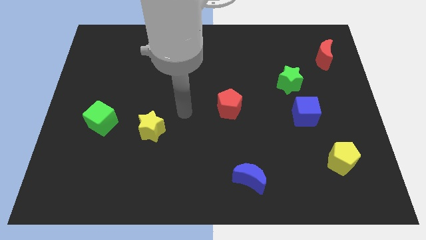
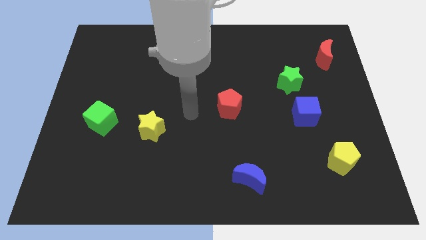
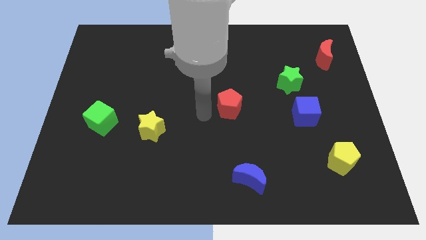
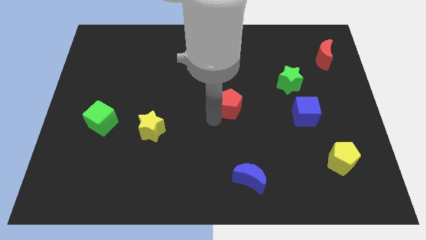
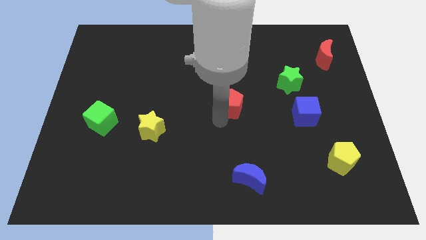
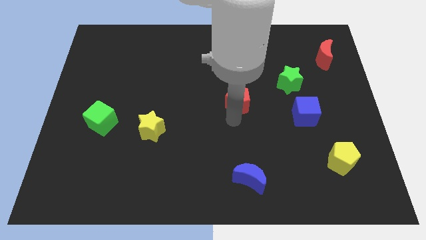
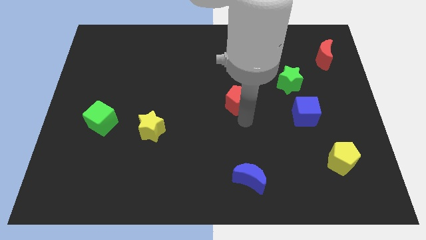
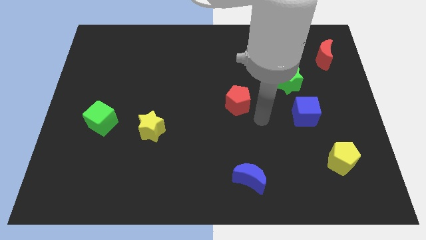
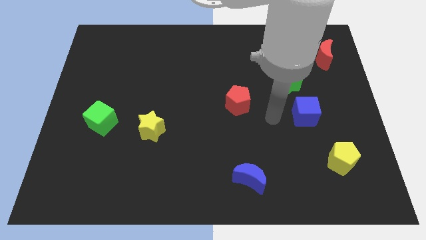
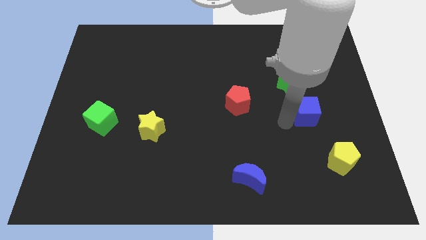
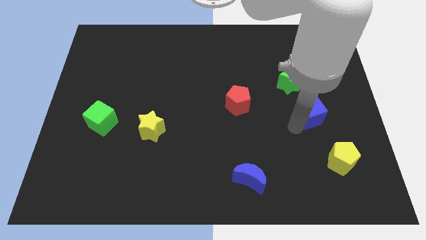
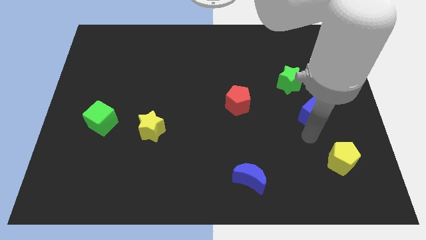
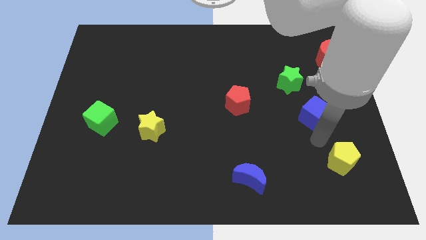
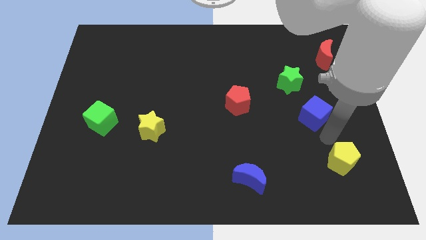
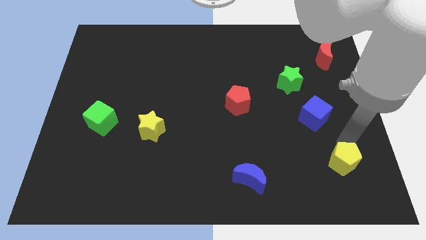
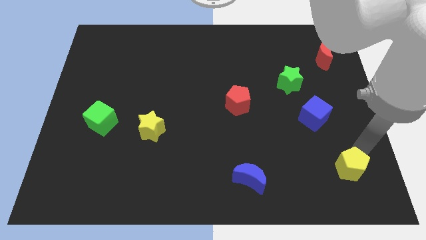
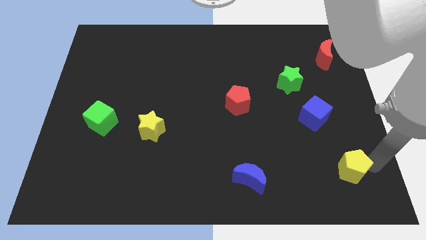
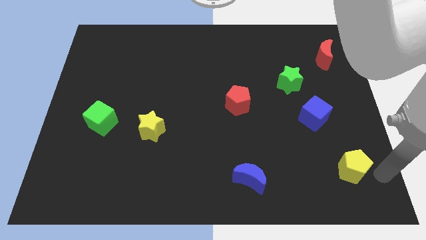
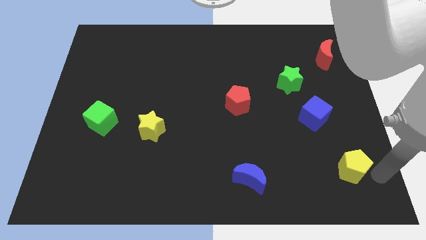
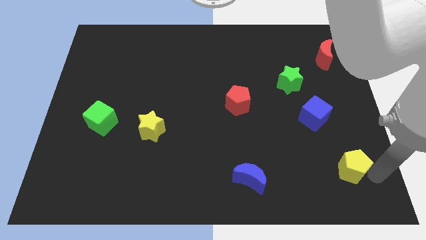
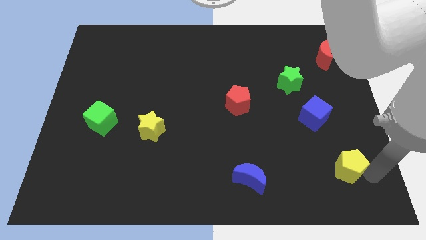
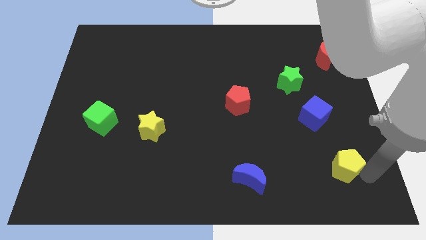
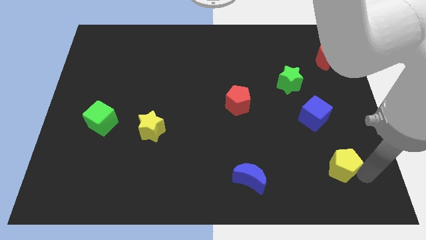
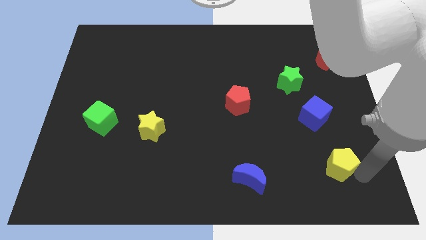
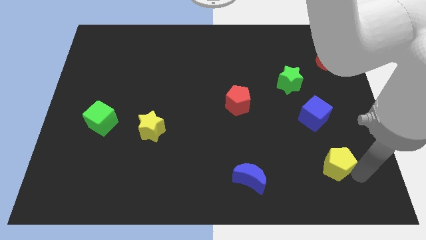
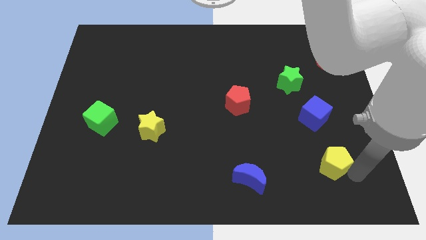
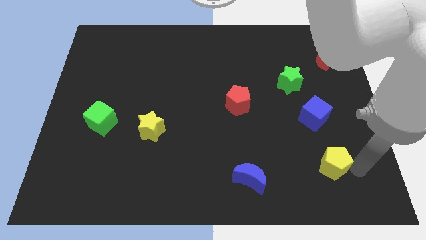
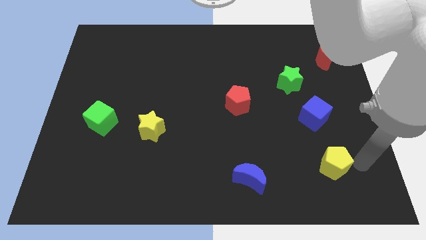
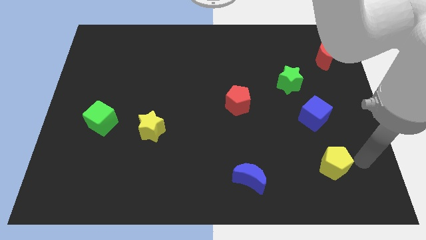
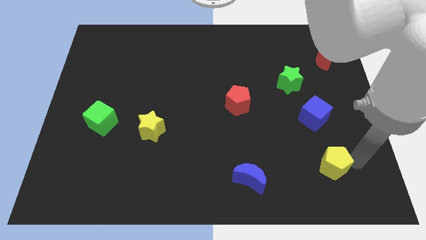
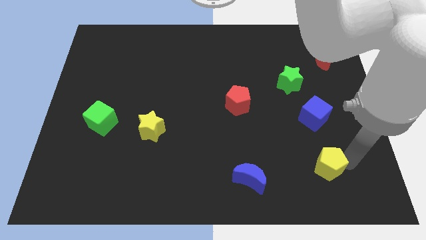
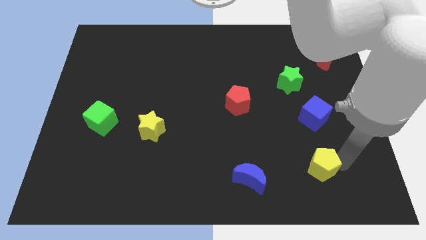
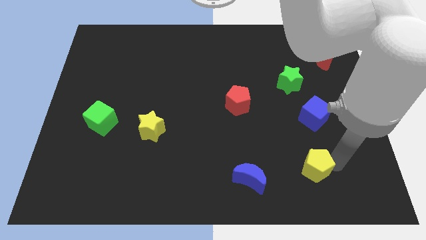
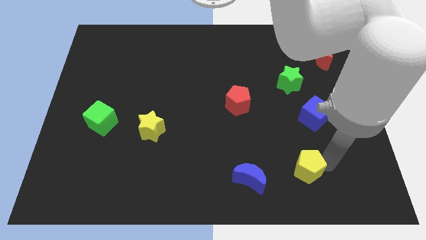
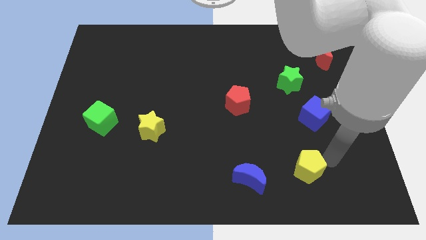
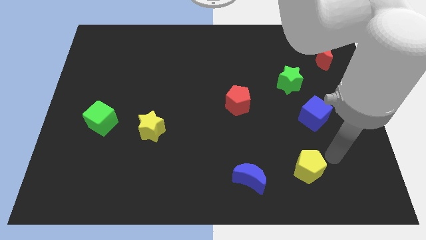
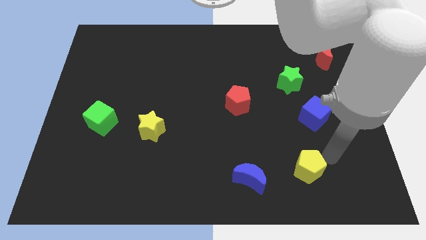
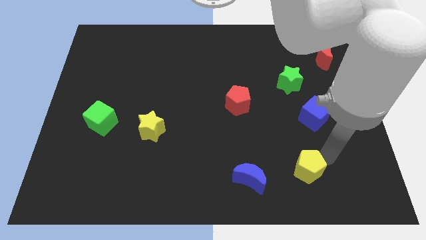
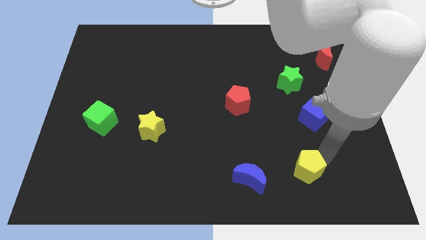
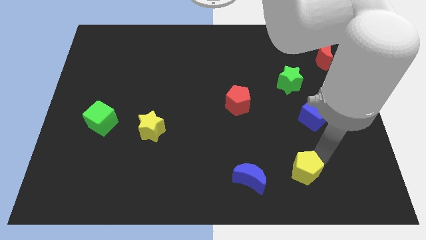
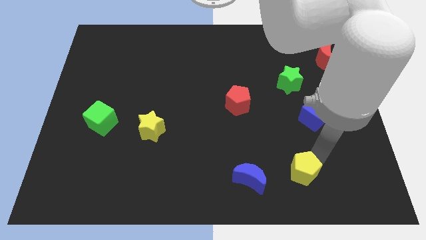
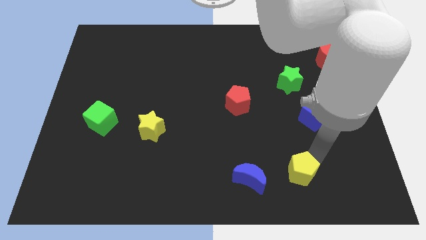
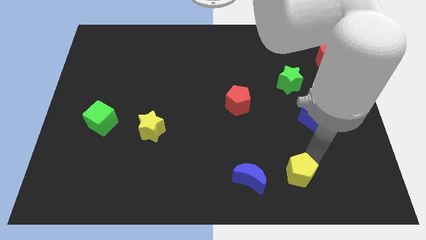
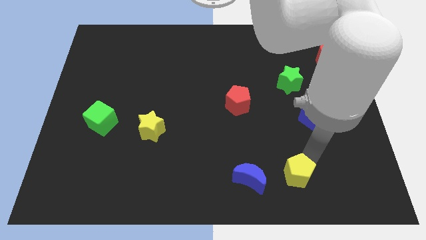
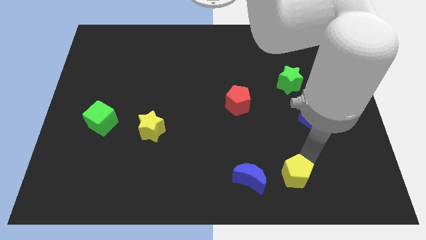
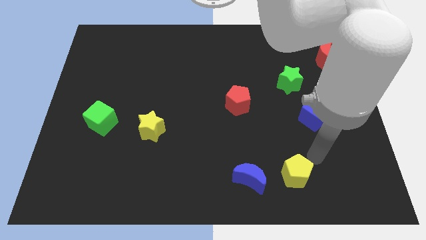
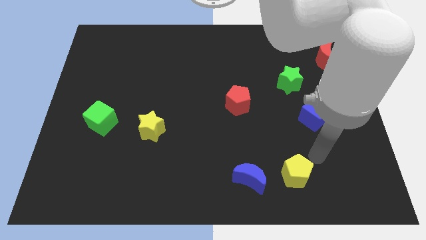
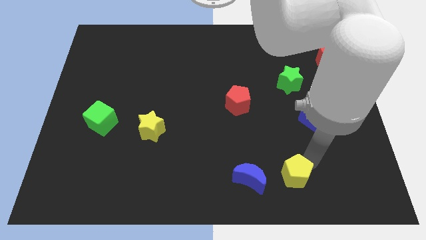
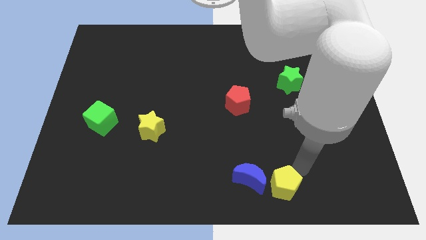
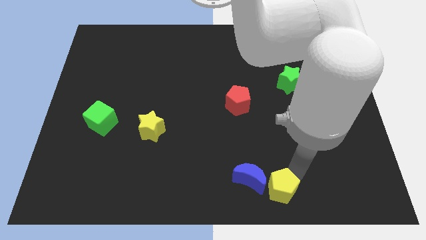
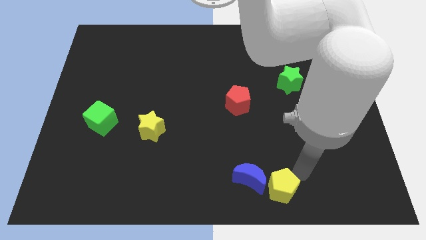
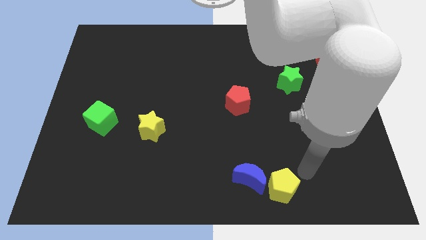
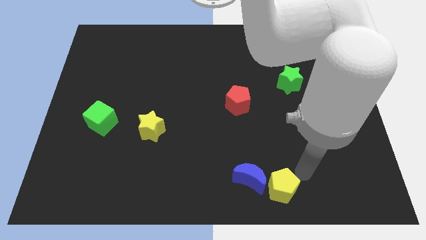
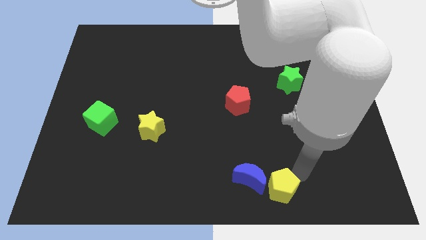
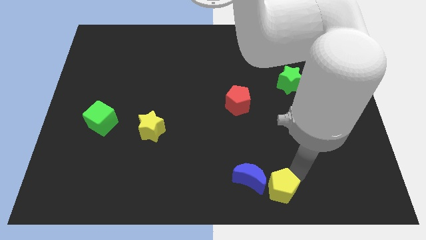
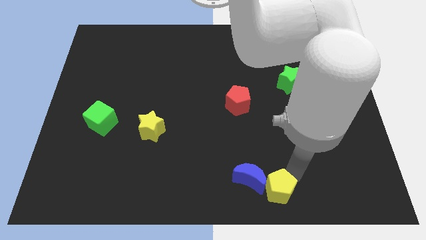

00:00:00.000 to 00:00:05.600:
slide the yellow pentagon to the bottom
